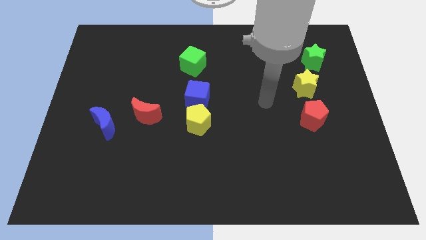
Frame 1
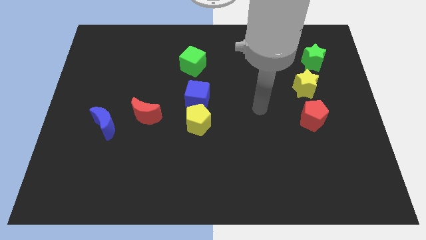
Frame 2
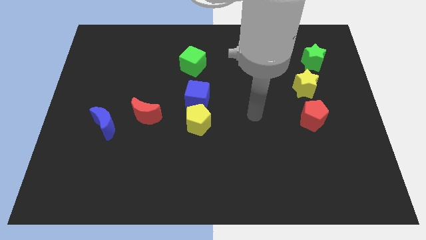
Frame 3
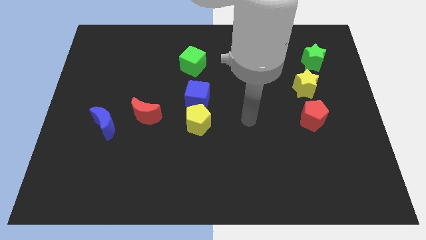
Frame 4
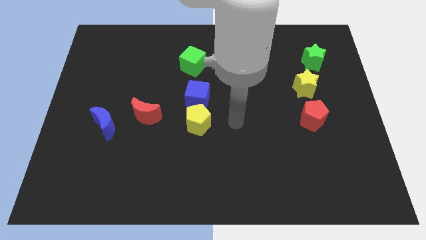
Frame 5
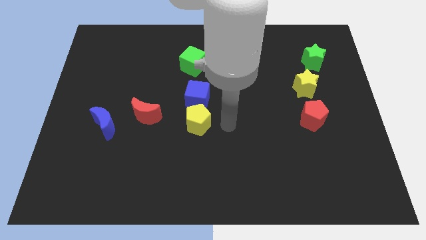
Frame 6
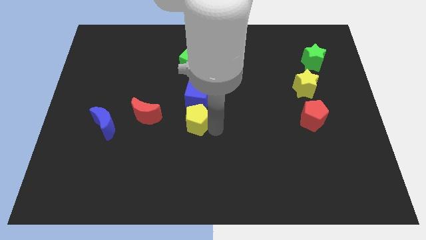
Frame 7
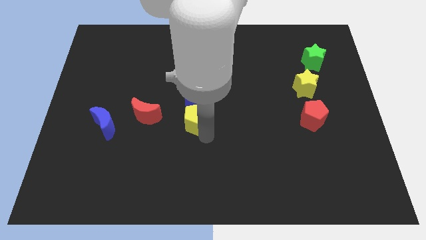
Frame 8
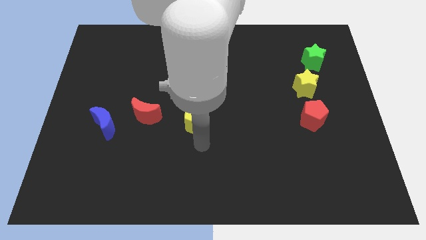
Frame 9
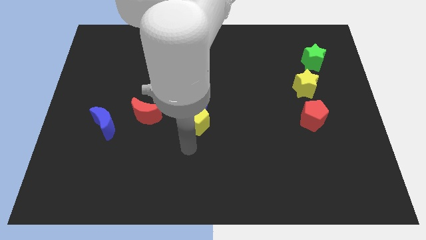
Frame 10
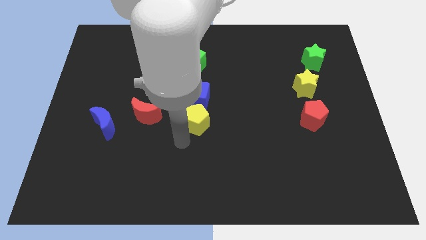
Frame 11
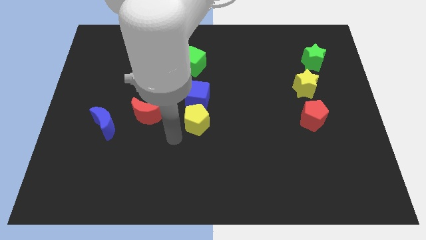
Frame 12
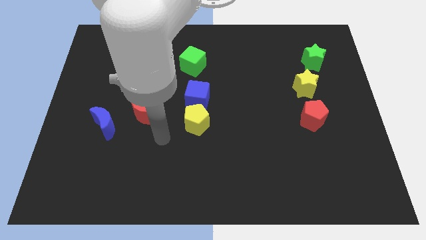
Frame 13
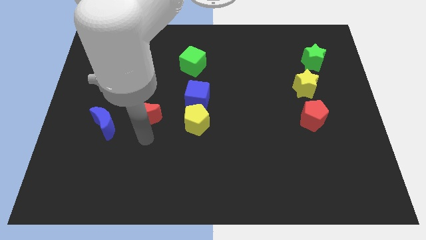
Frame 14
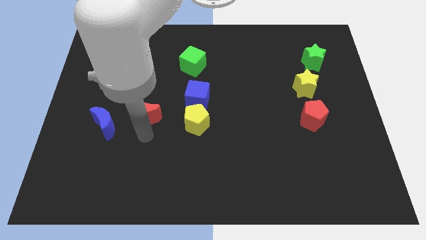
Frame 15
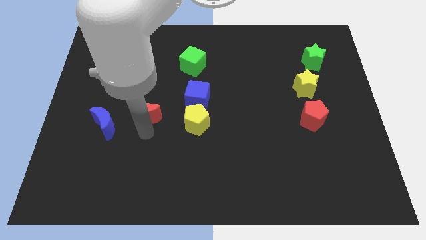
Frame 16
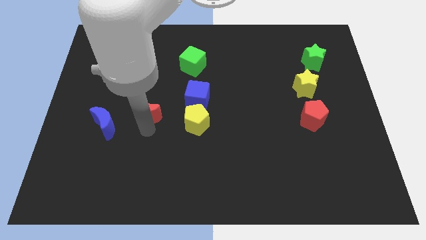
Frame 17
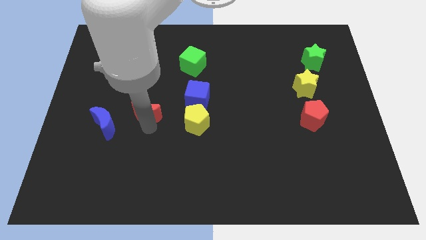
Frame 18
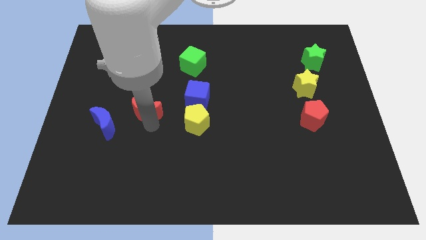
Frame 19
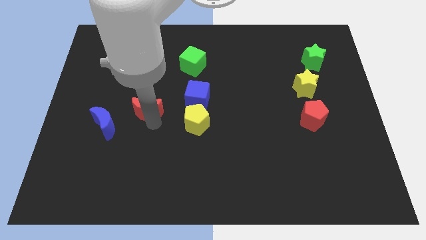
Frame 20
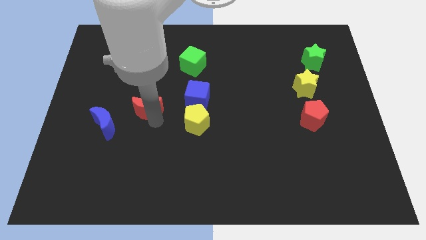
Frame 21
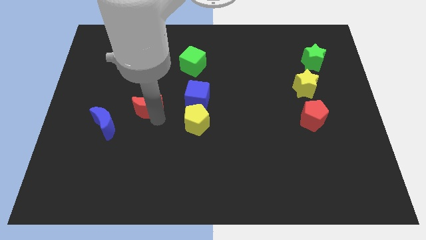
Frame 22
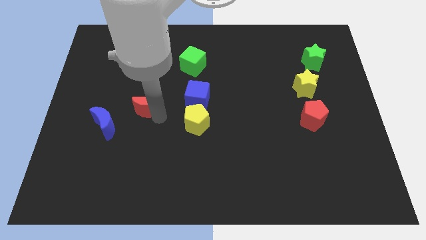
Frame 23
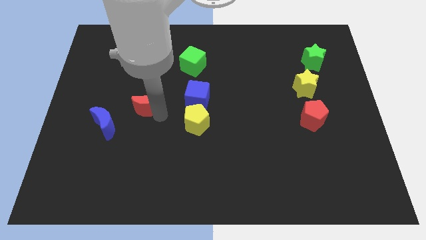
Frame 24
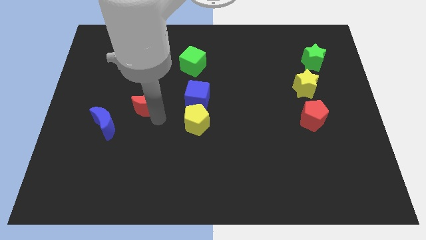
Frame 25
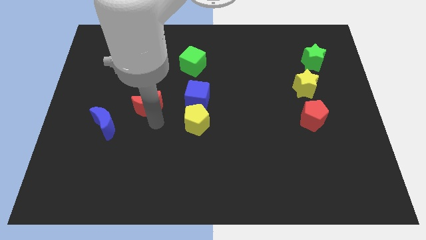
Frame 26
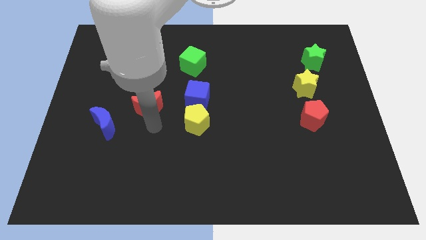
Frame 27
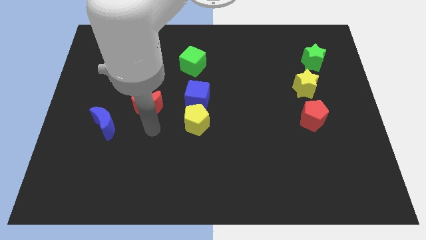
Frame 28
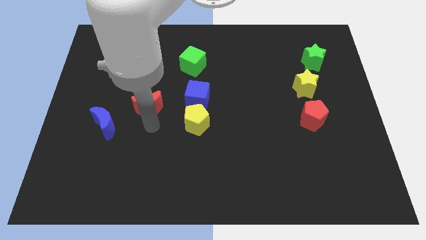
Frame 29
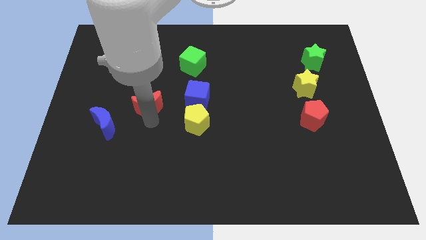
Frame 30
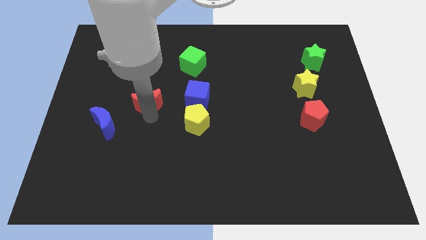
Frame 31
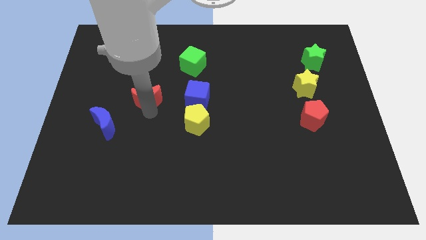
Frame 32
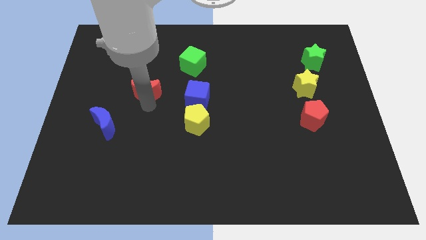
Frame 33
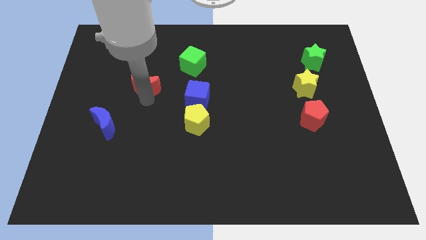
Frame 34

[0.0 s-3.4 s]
slightly move the red moon up

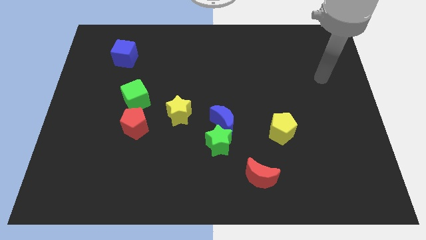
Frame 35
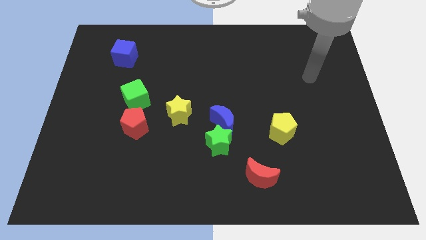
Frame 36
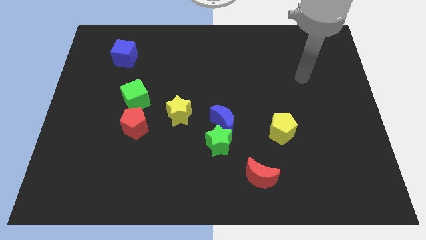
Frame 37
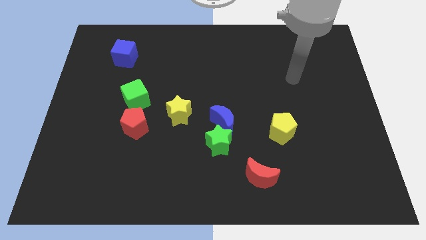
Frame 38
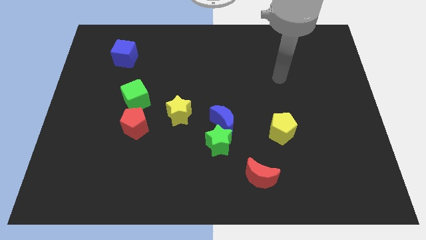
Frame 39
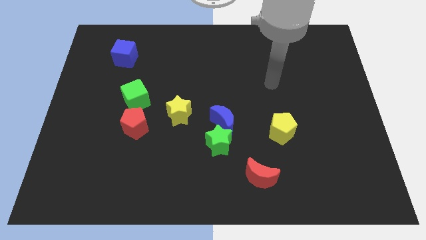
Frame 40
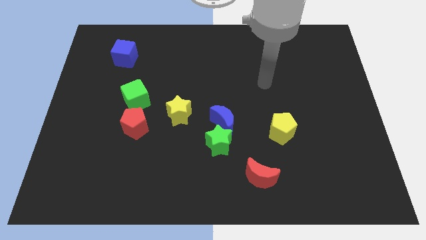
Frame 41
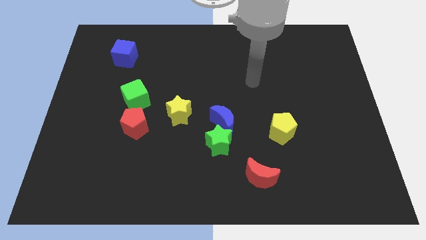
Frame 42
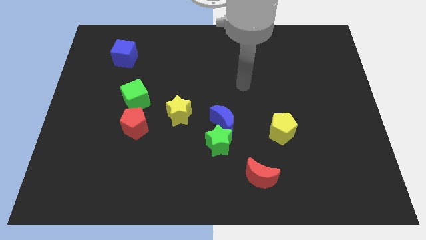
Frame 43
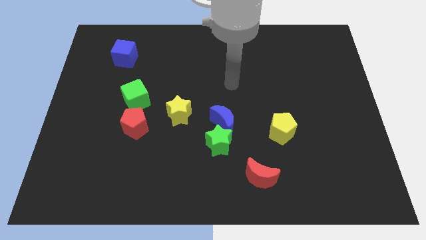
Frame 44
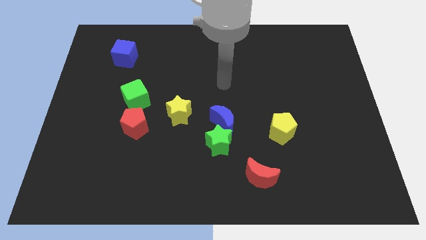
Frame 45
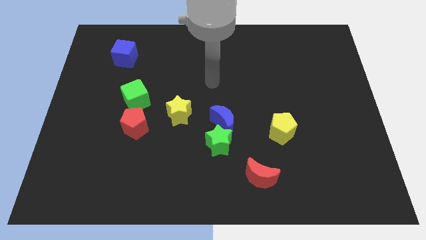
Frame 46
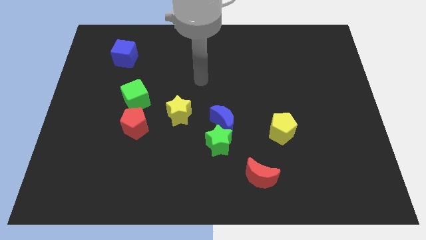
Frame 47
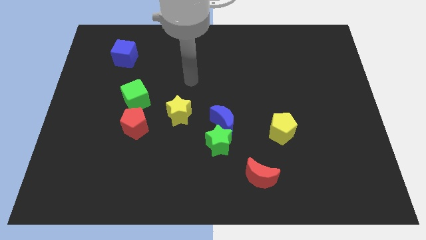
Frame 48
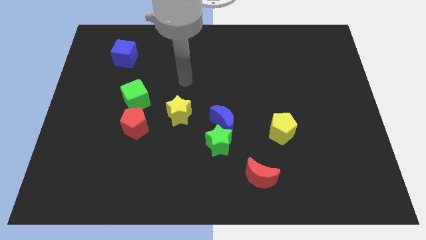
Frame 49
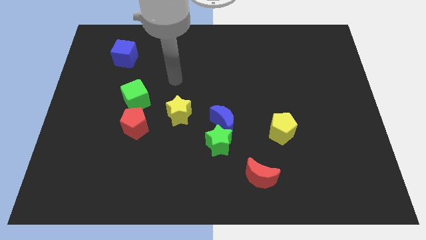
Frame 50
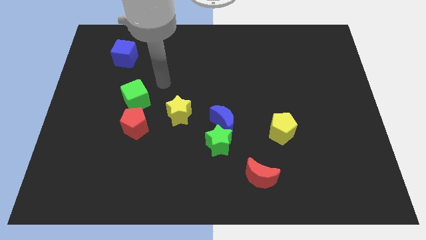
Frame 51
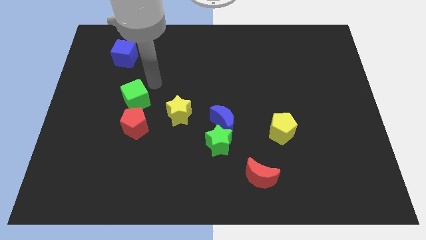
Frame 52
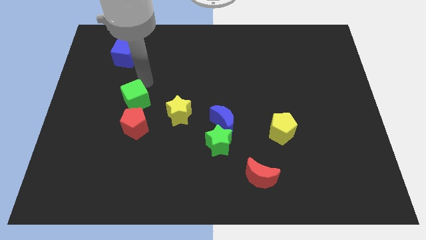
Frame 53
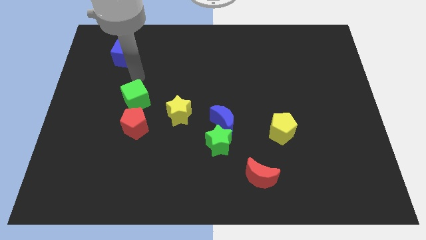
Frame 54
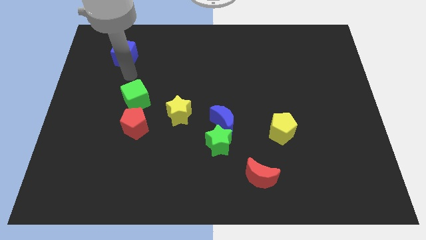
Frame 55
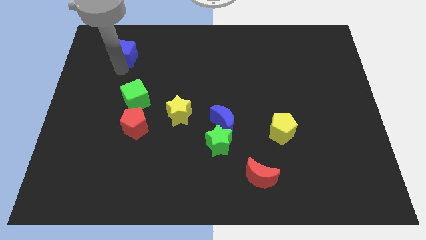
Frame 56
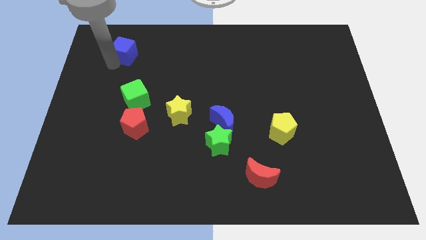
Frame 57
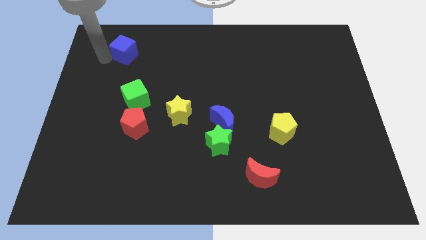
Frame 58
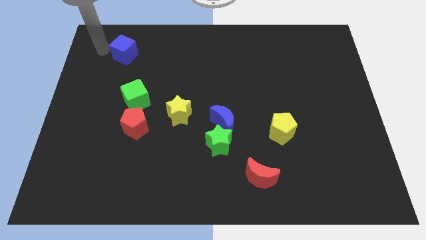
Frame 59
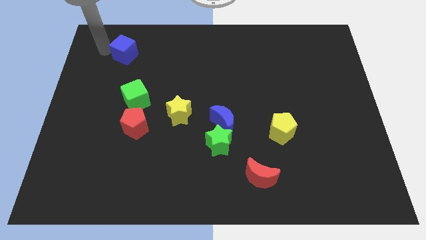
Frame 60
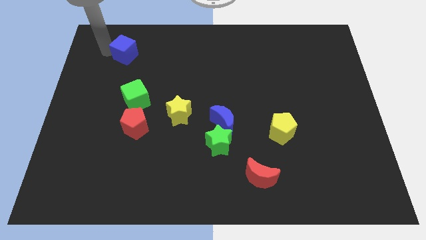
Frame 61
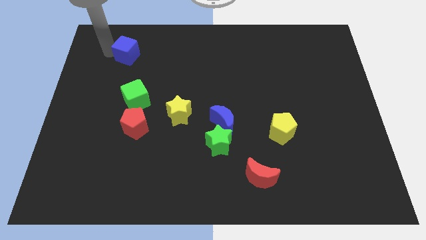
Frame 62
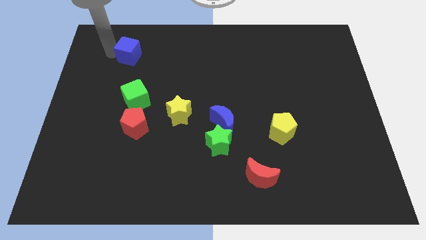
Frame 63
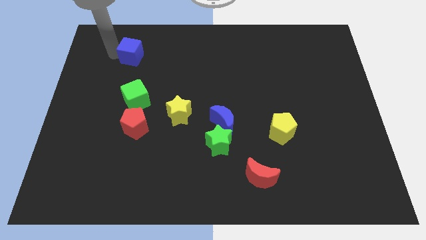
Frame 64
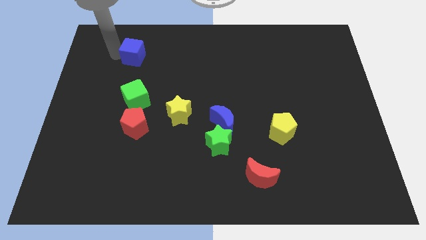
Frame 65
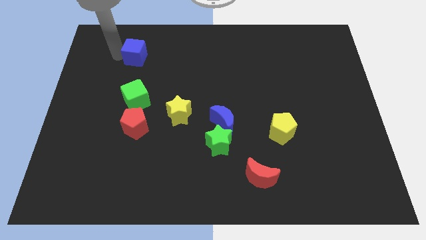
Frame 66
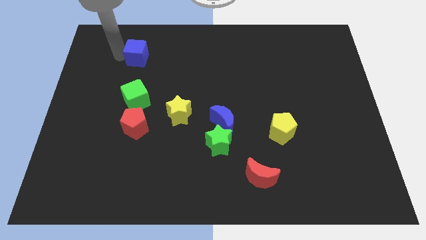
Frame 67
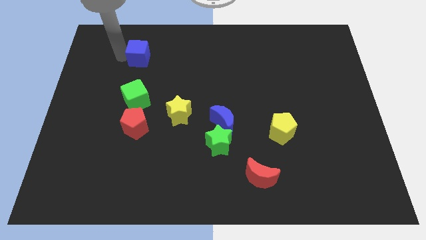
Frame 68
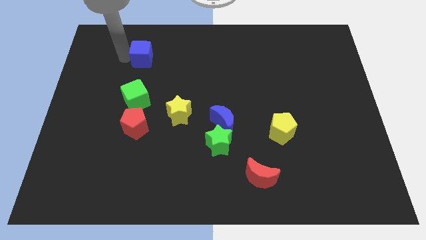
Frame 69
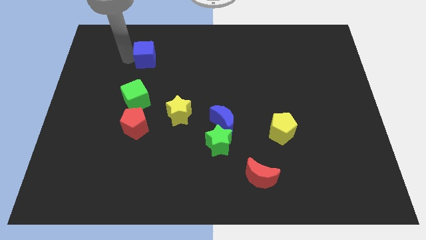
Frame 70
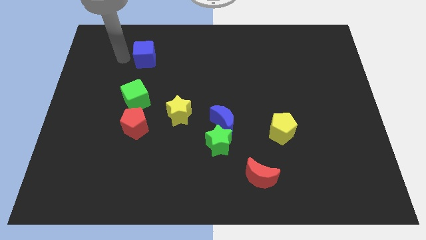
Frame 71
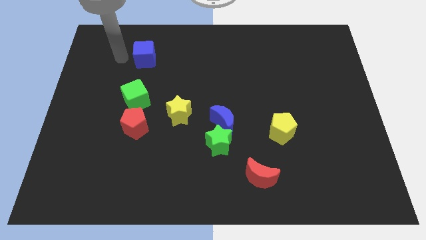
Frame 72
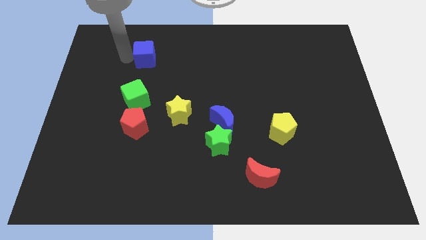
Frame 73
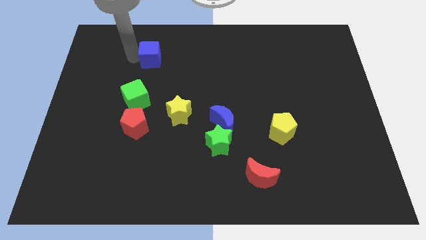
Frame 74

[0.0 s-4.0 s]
slightly slide the blue cube to the right

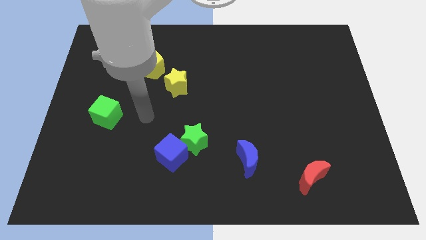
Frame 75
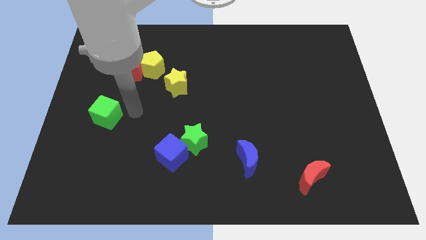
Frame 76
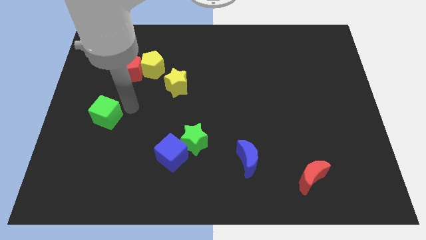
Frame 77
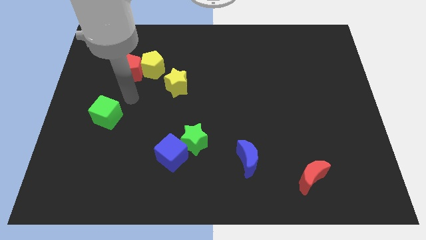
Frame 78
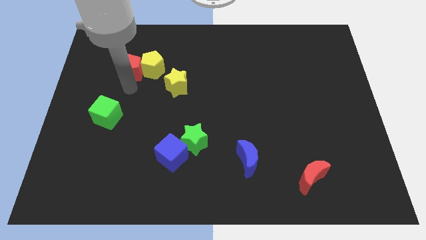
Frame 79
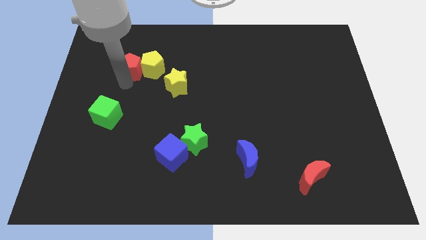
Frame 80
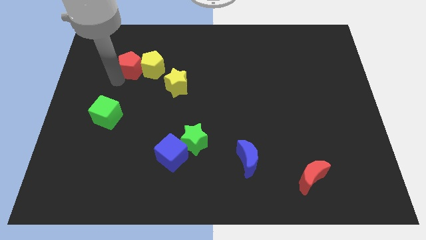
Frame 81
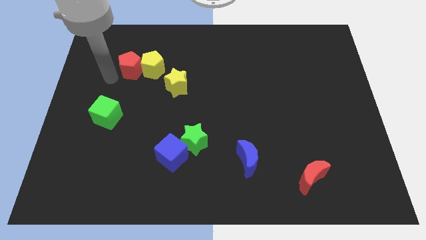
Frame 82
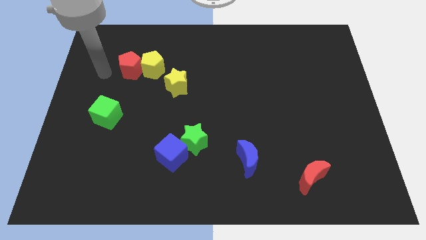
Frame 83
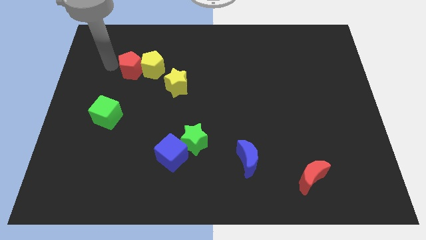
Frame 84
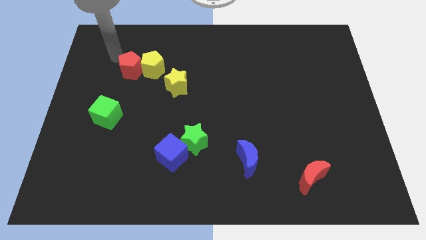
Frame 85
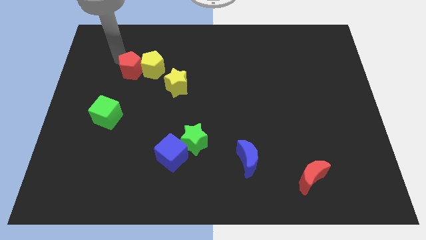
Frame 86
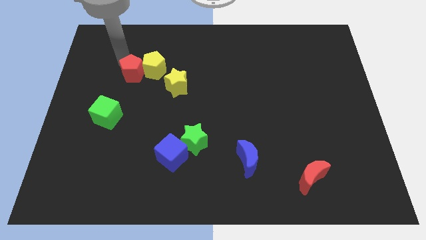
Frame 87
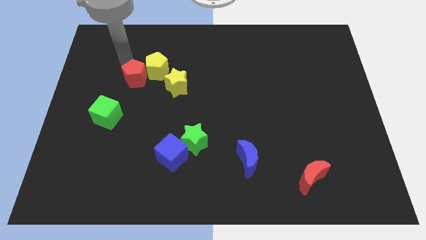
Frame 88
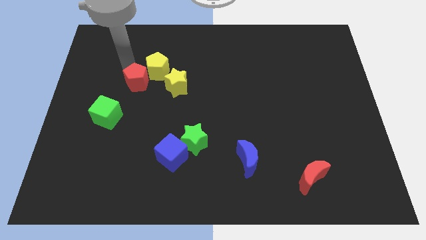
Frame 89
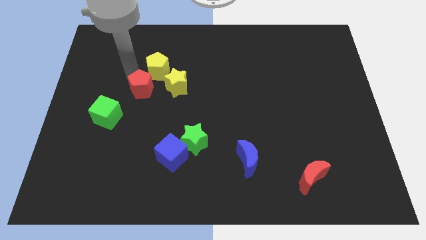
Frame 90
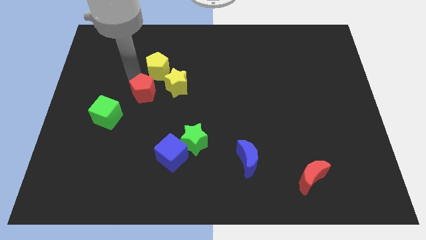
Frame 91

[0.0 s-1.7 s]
push the red pentagon a little bit downwards and then to the right
